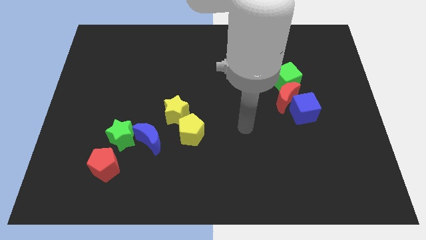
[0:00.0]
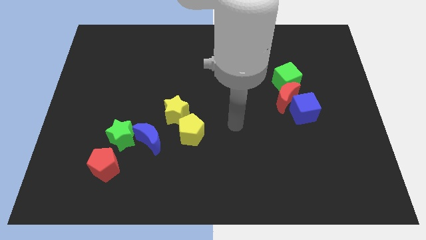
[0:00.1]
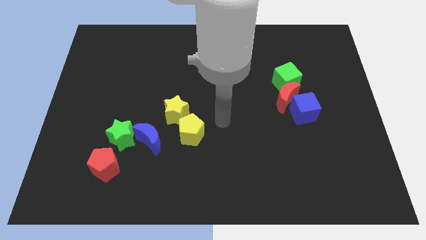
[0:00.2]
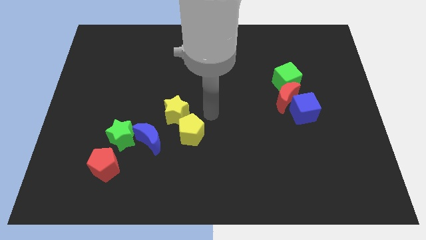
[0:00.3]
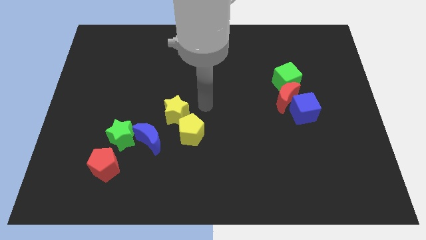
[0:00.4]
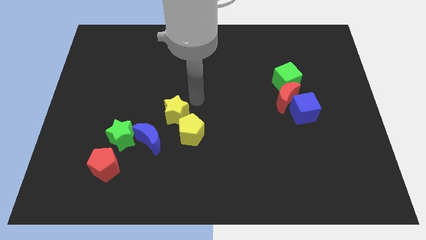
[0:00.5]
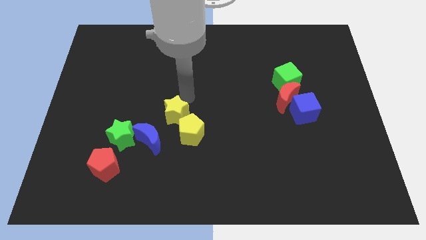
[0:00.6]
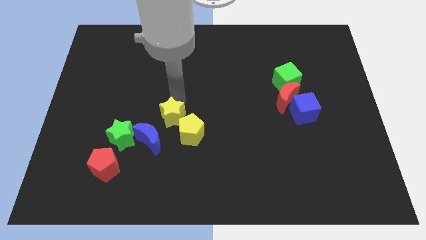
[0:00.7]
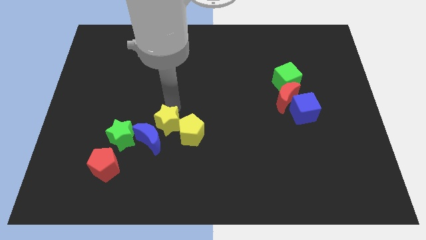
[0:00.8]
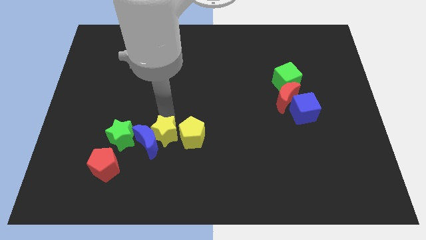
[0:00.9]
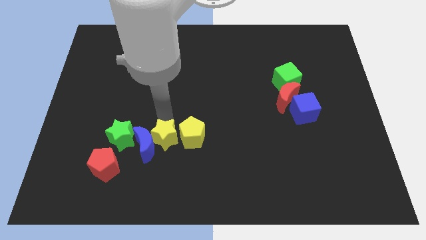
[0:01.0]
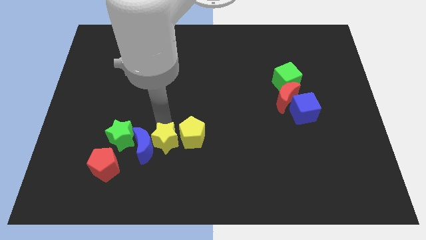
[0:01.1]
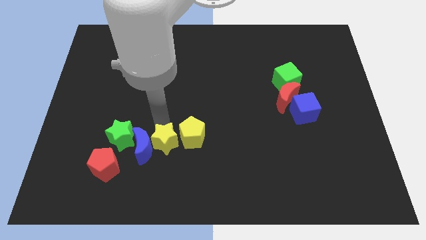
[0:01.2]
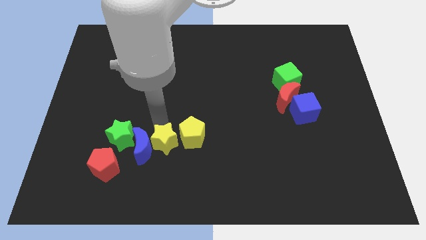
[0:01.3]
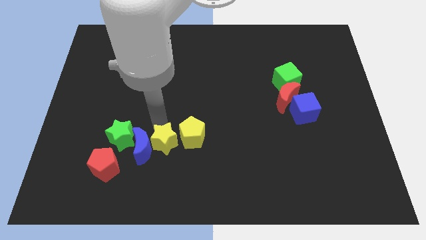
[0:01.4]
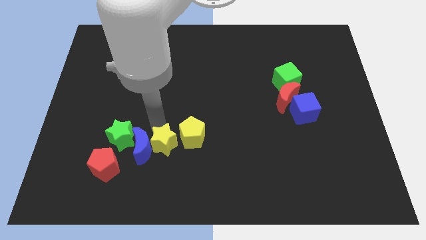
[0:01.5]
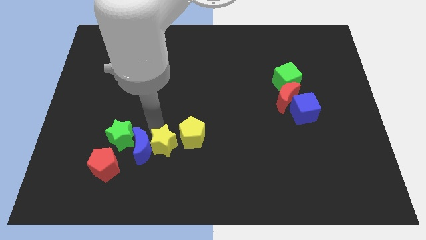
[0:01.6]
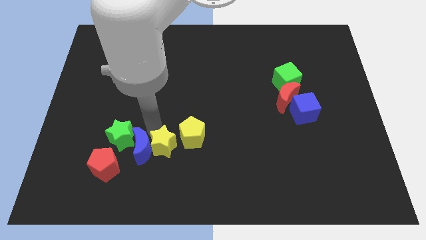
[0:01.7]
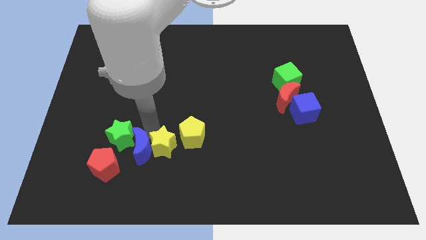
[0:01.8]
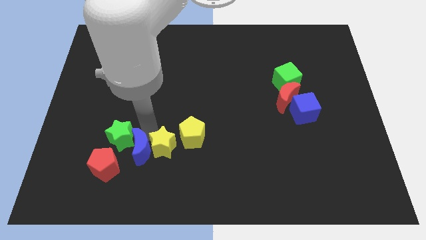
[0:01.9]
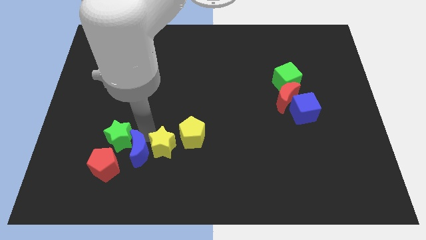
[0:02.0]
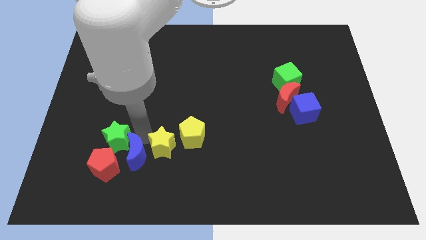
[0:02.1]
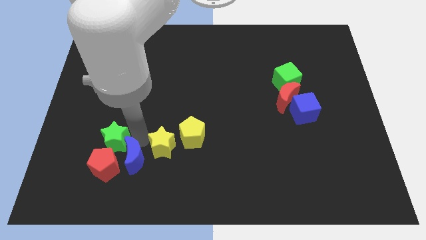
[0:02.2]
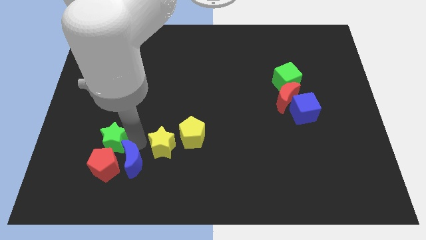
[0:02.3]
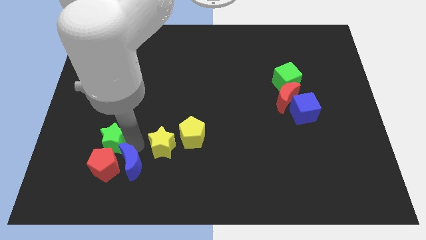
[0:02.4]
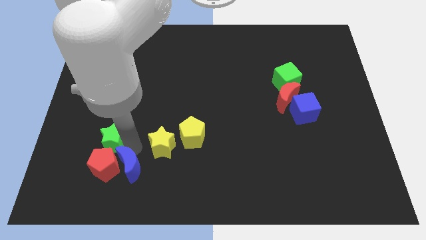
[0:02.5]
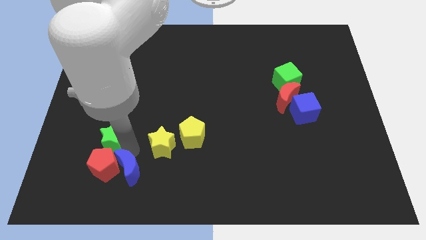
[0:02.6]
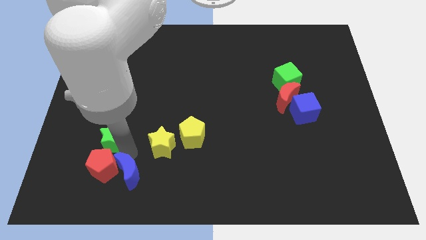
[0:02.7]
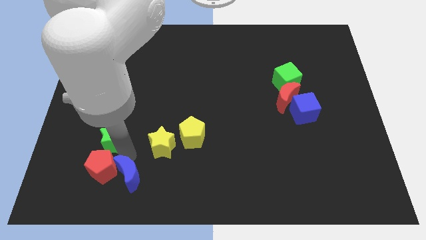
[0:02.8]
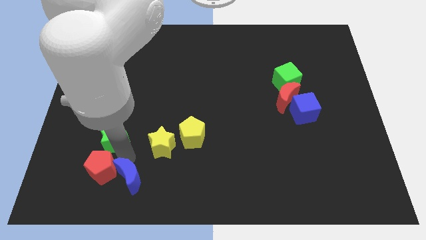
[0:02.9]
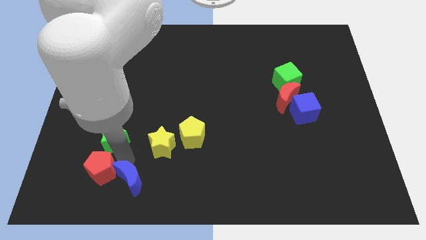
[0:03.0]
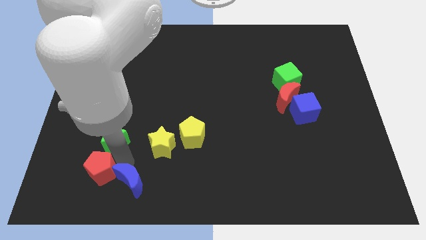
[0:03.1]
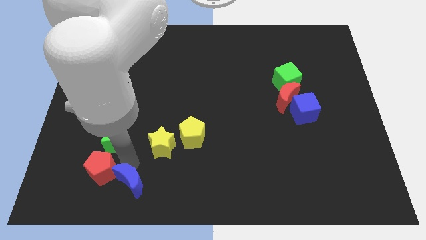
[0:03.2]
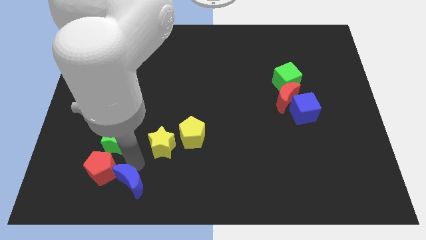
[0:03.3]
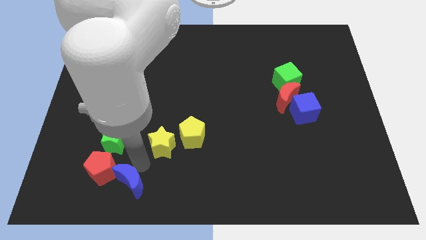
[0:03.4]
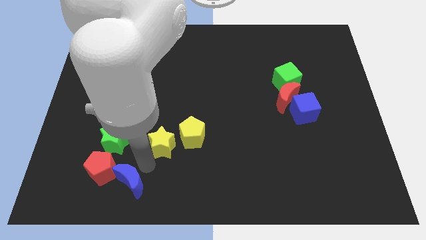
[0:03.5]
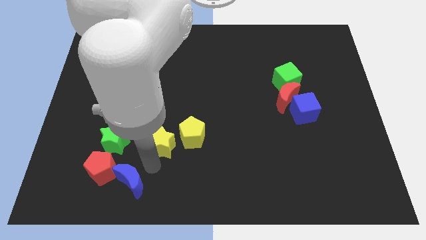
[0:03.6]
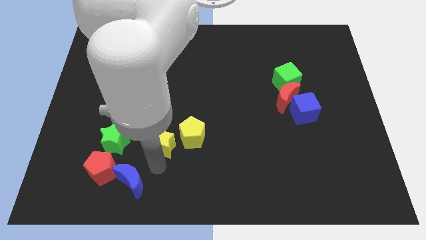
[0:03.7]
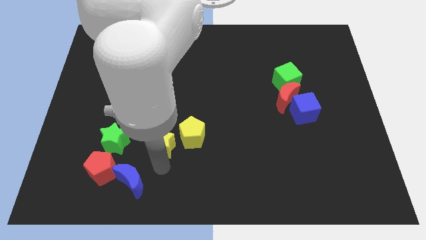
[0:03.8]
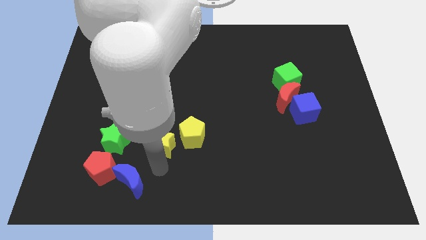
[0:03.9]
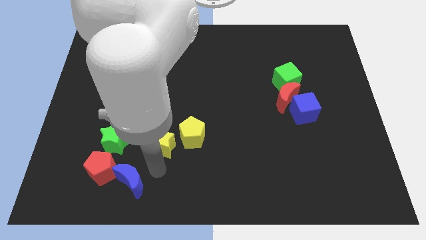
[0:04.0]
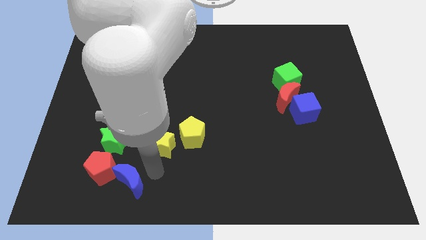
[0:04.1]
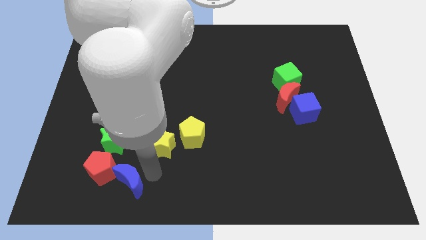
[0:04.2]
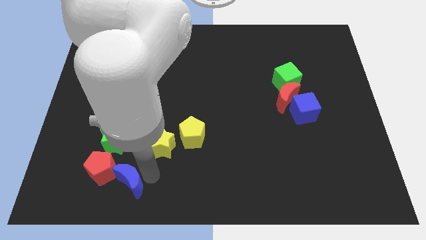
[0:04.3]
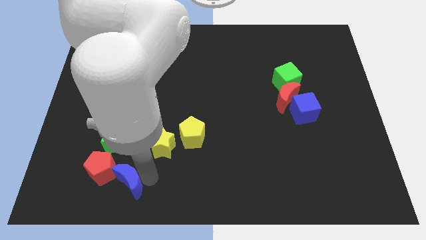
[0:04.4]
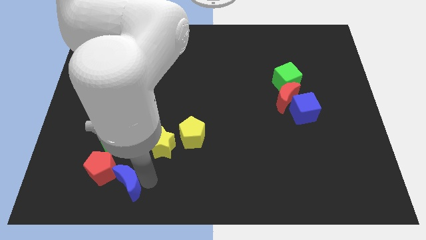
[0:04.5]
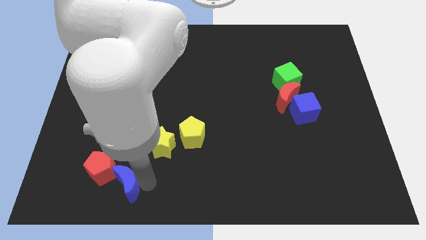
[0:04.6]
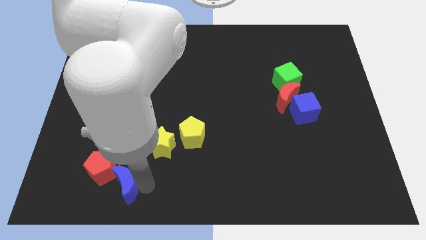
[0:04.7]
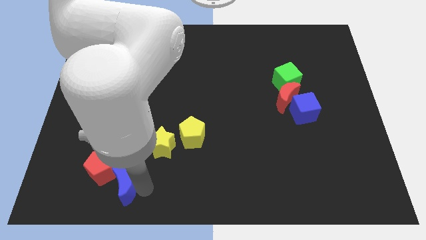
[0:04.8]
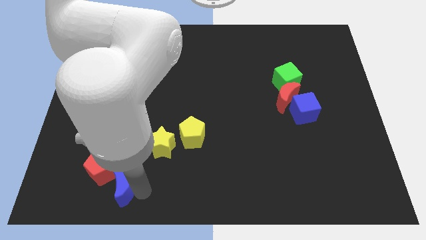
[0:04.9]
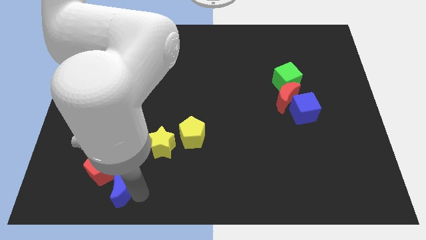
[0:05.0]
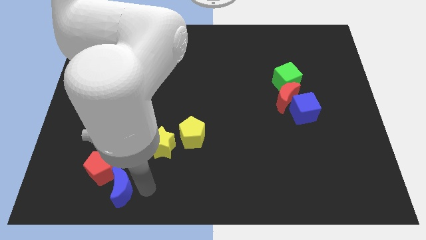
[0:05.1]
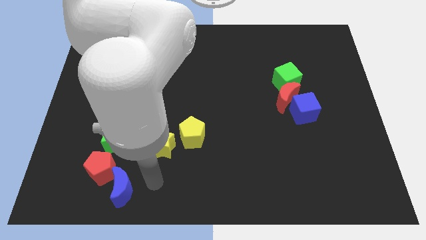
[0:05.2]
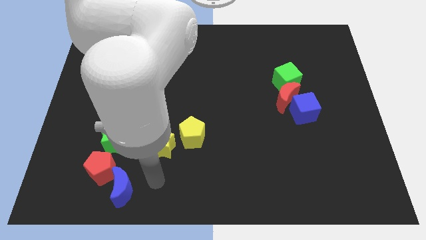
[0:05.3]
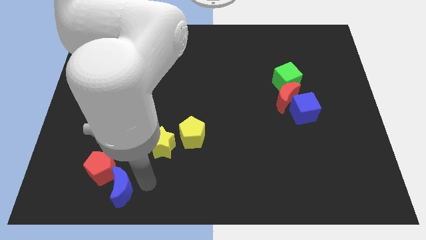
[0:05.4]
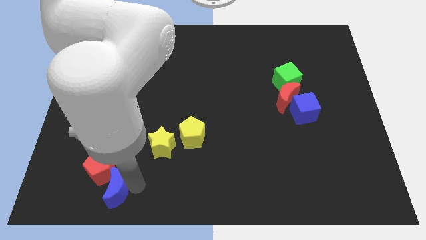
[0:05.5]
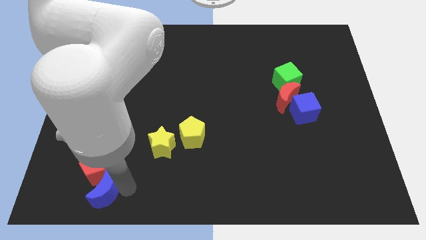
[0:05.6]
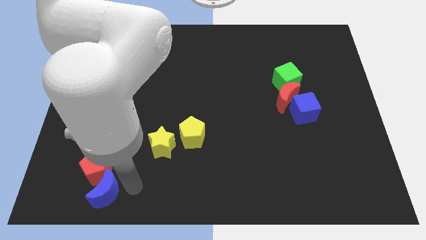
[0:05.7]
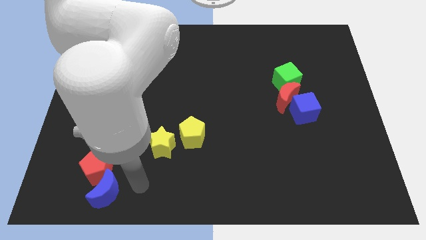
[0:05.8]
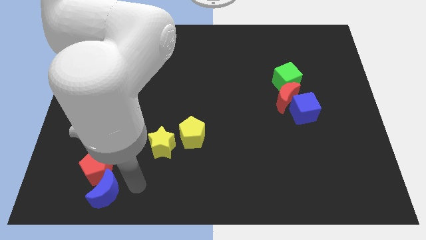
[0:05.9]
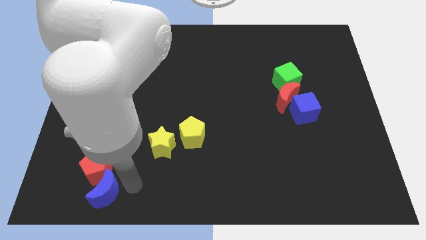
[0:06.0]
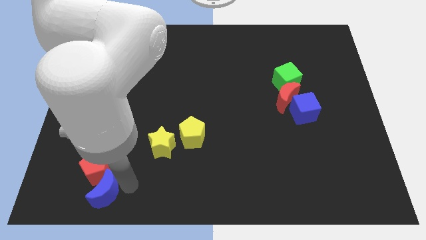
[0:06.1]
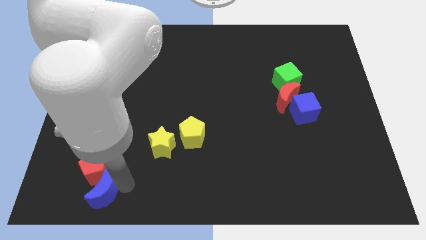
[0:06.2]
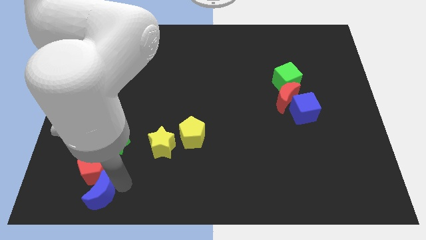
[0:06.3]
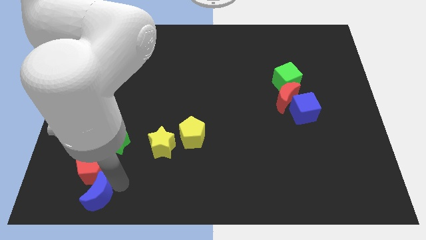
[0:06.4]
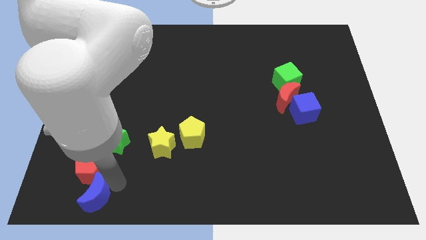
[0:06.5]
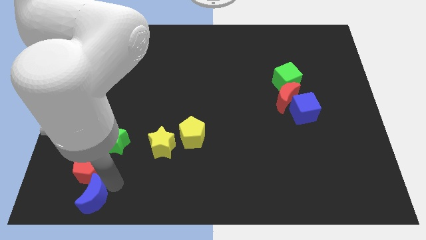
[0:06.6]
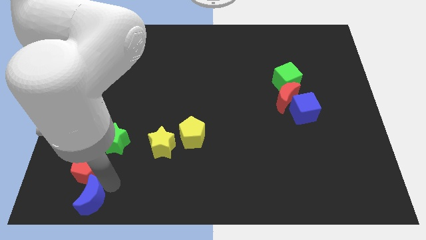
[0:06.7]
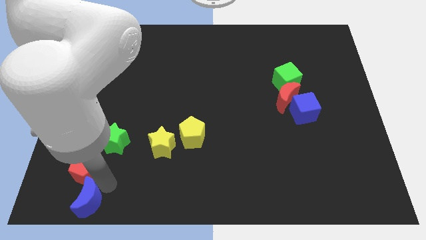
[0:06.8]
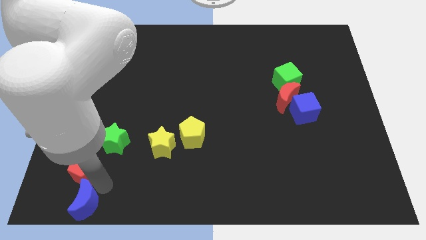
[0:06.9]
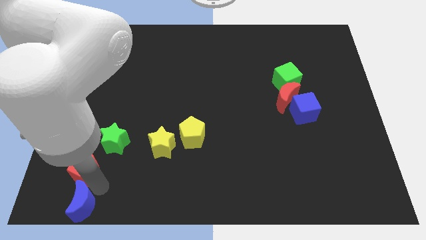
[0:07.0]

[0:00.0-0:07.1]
push the blue moon to the bottom left of the board
